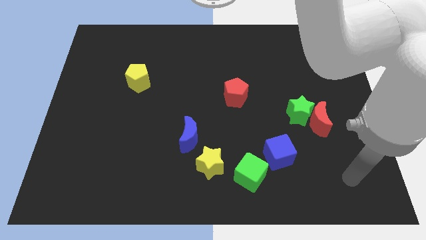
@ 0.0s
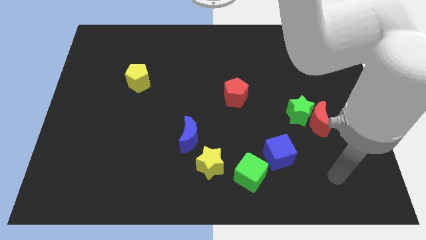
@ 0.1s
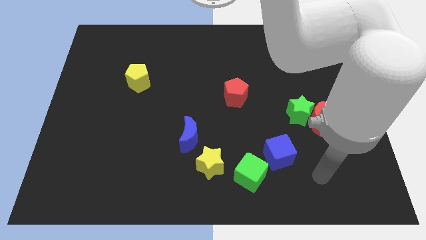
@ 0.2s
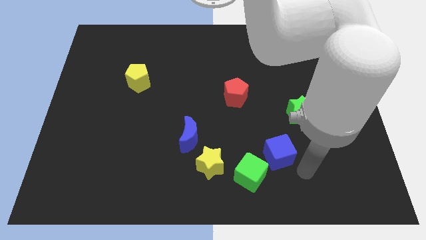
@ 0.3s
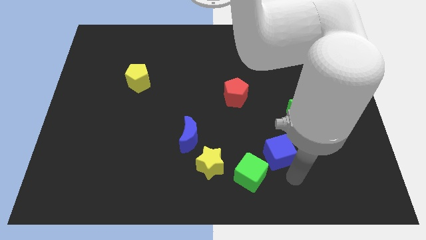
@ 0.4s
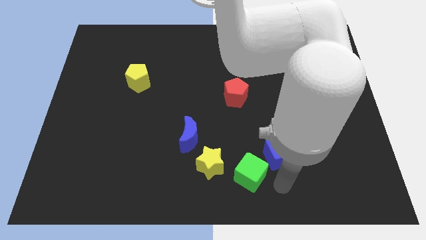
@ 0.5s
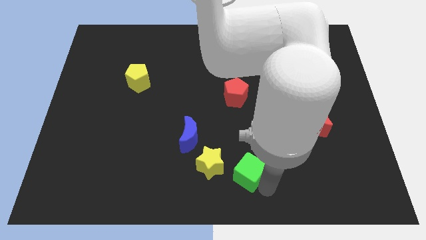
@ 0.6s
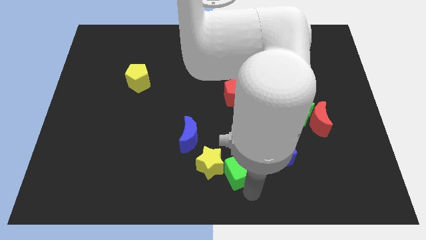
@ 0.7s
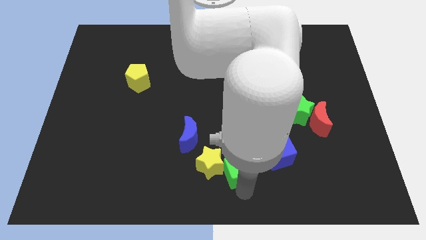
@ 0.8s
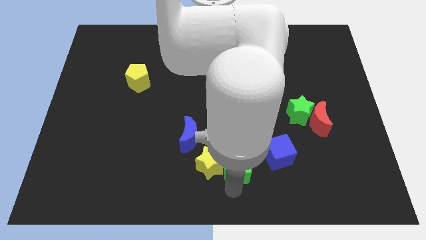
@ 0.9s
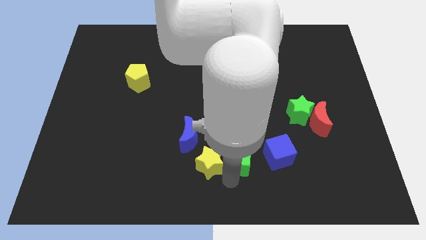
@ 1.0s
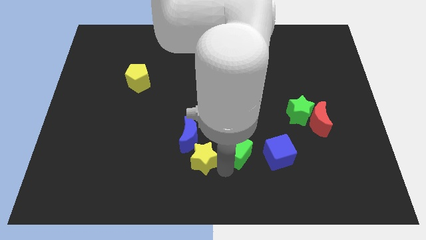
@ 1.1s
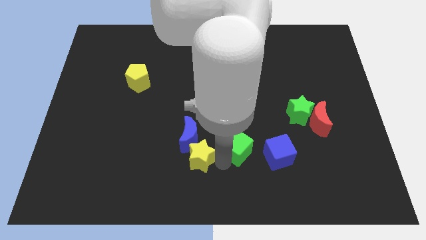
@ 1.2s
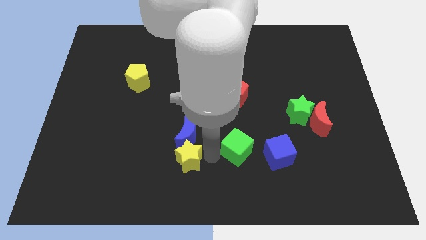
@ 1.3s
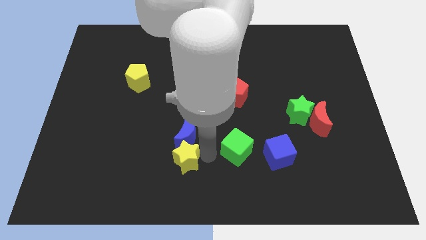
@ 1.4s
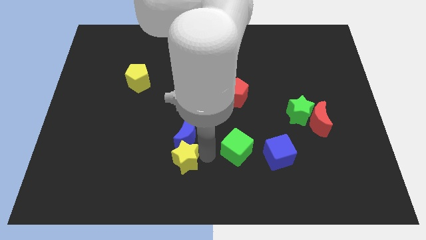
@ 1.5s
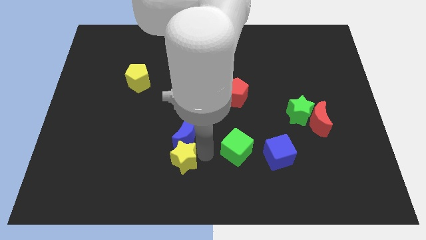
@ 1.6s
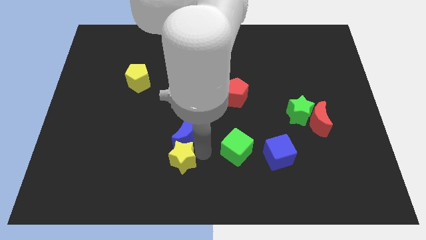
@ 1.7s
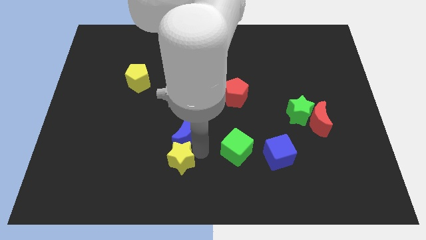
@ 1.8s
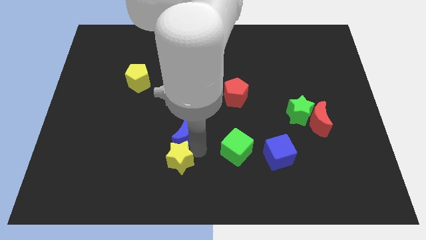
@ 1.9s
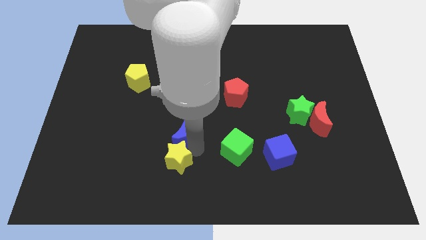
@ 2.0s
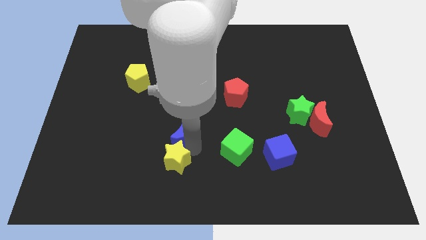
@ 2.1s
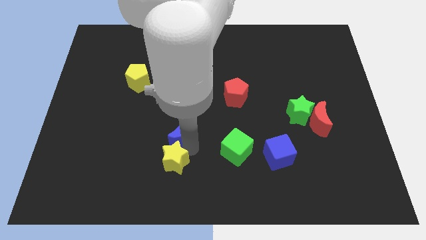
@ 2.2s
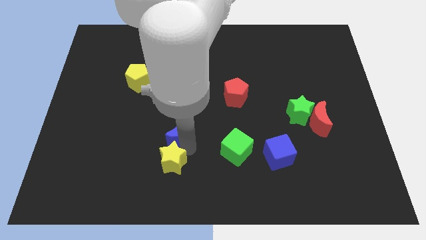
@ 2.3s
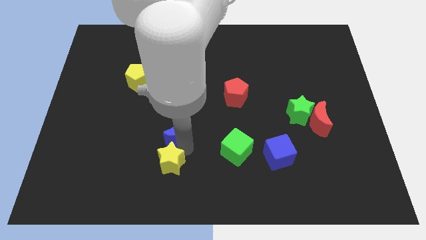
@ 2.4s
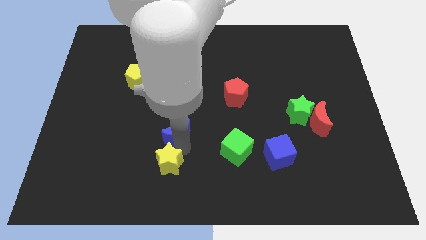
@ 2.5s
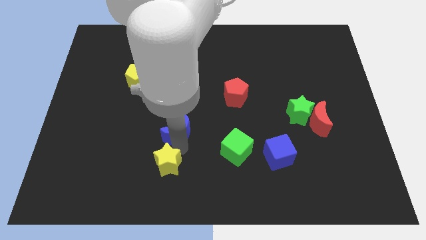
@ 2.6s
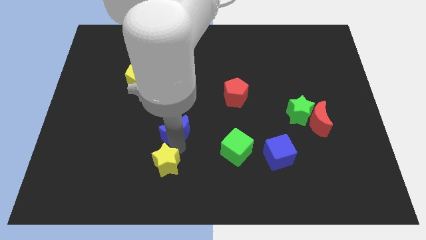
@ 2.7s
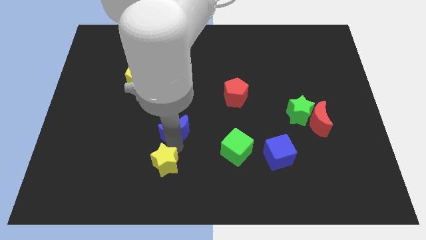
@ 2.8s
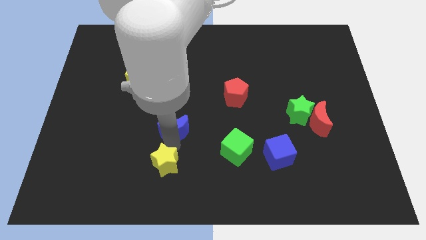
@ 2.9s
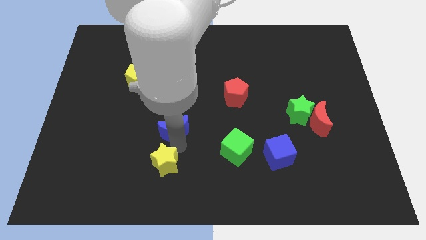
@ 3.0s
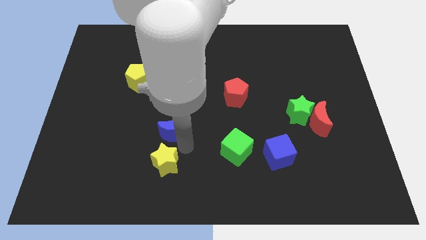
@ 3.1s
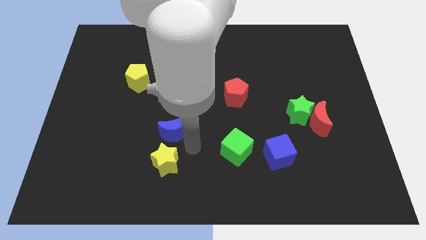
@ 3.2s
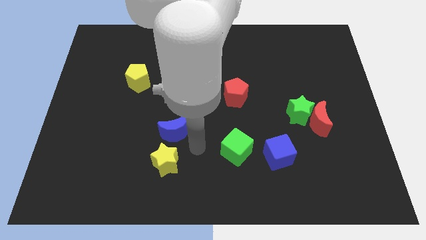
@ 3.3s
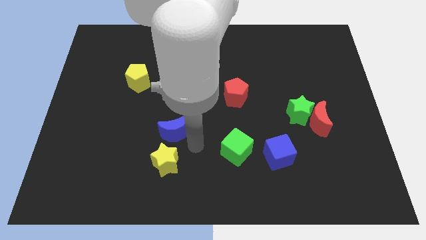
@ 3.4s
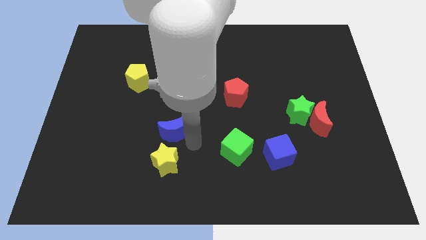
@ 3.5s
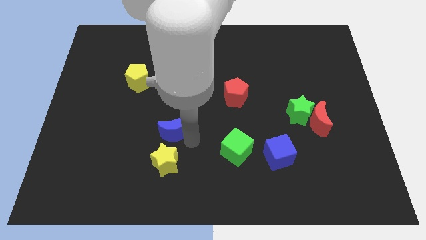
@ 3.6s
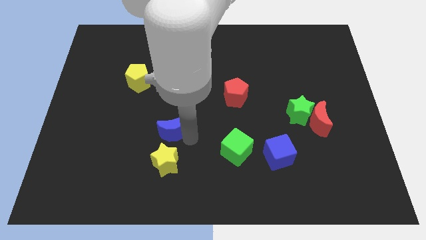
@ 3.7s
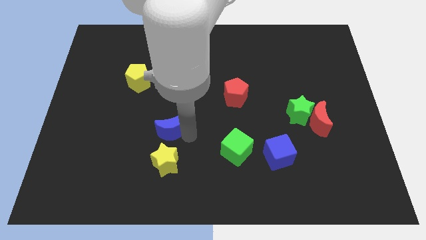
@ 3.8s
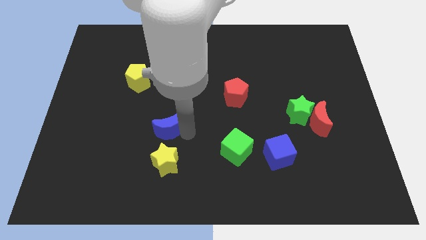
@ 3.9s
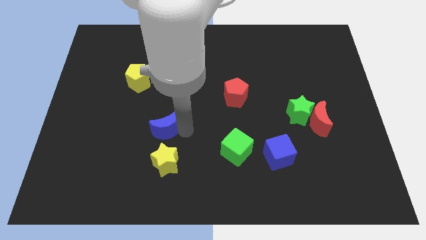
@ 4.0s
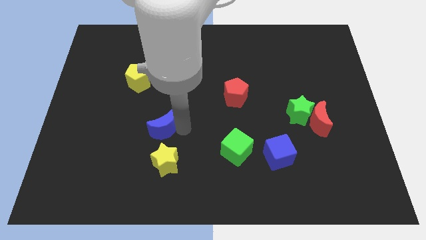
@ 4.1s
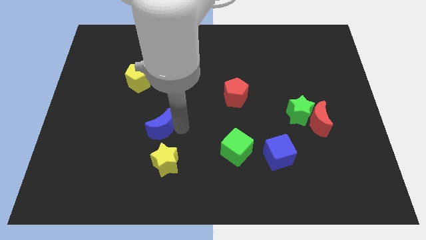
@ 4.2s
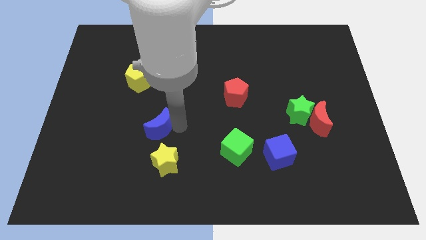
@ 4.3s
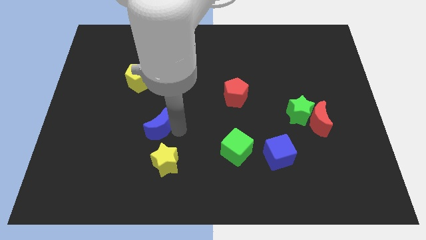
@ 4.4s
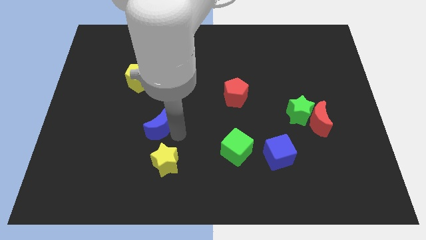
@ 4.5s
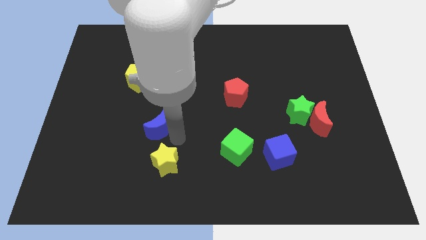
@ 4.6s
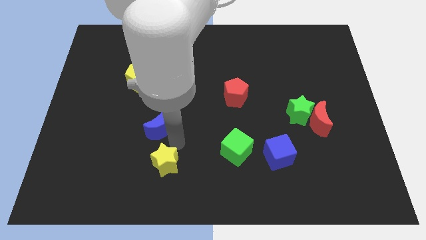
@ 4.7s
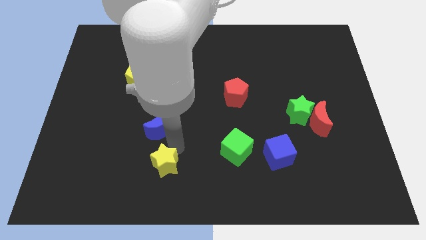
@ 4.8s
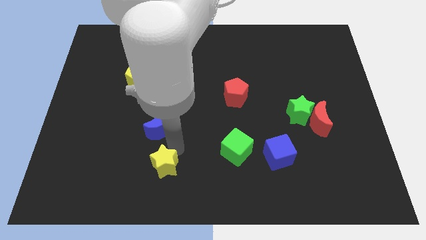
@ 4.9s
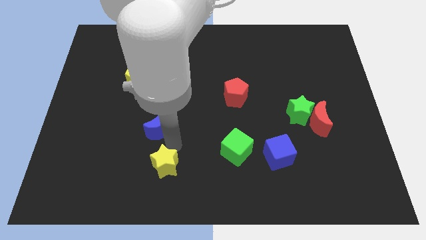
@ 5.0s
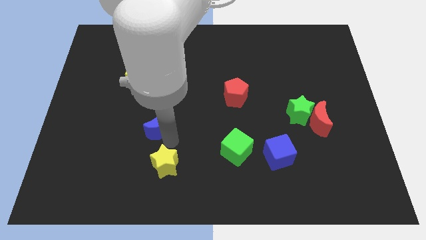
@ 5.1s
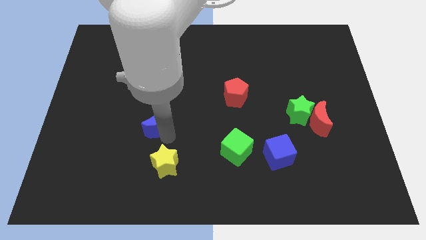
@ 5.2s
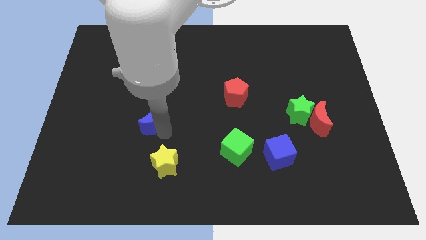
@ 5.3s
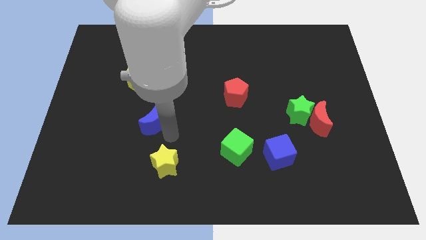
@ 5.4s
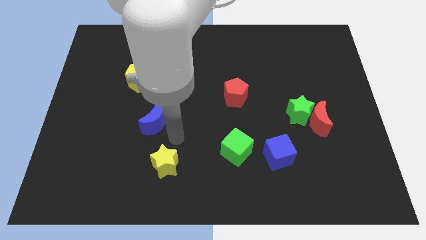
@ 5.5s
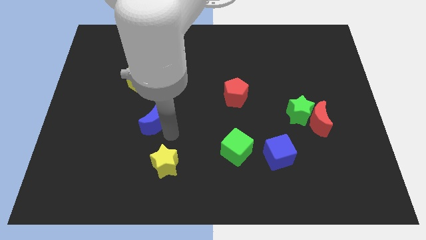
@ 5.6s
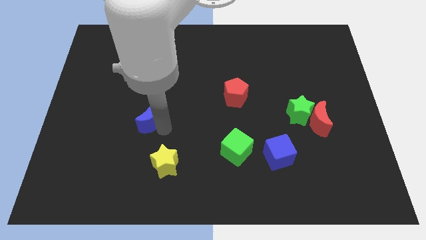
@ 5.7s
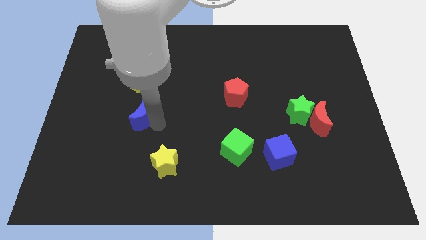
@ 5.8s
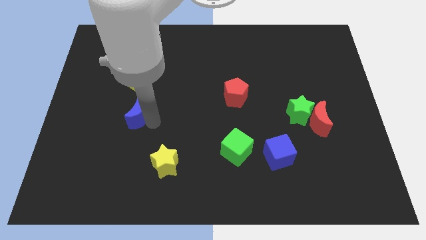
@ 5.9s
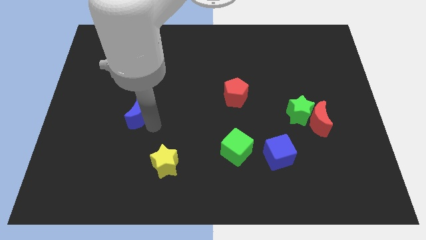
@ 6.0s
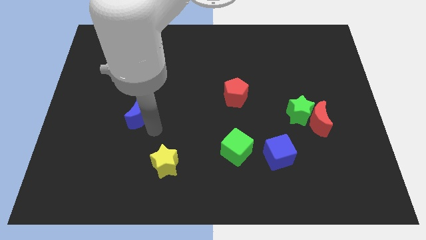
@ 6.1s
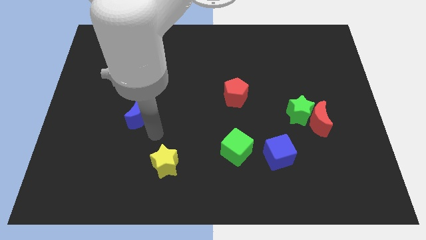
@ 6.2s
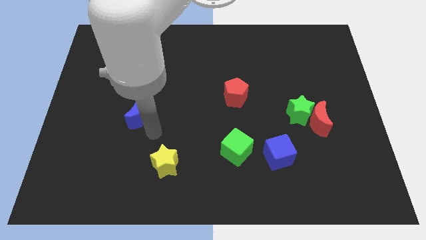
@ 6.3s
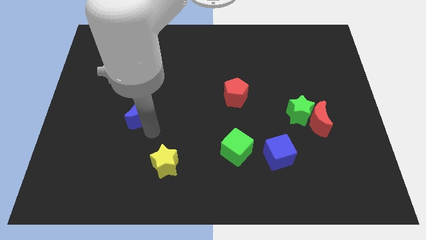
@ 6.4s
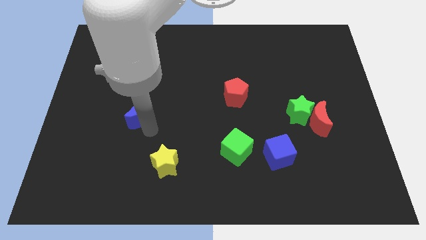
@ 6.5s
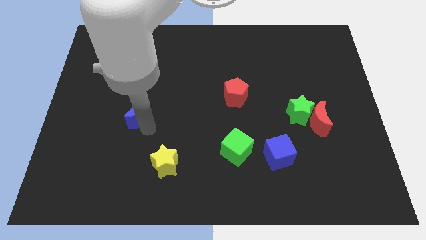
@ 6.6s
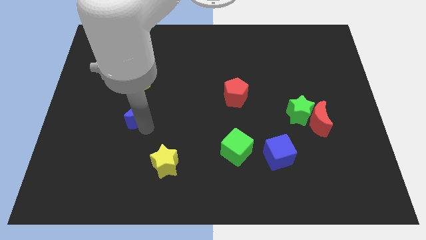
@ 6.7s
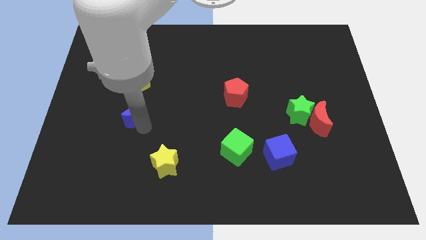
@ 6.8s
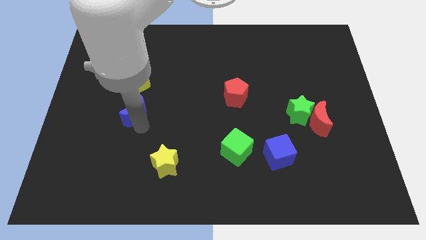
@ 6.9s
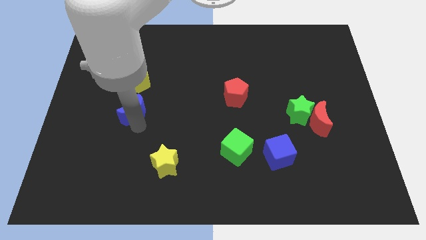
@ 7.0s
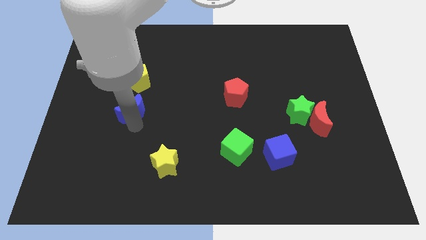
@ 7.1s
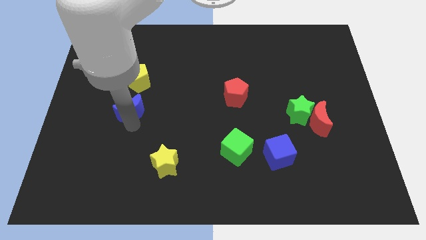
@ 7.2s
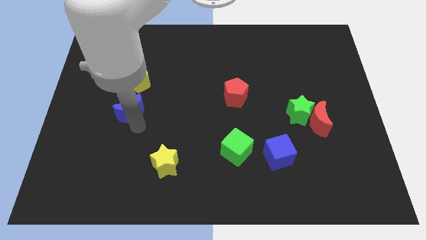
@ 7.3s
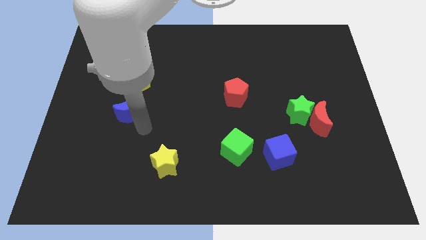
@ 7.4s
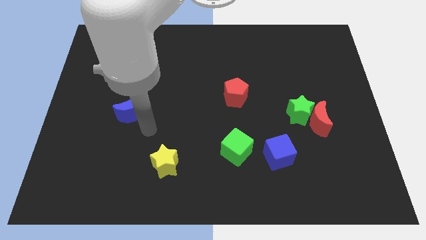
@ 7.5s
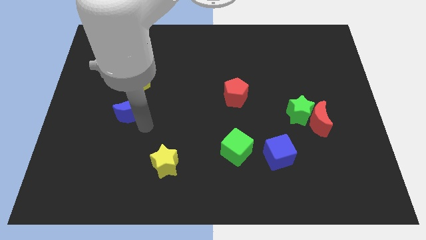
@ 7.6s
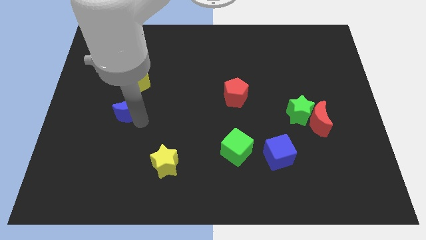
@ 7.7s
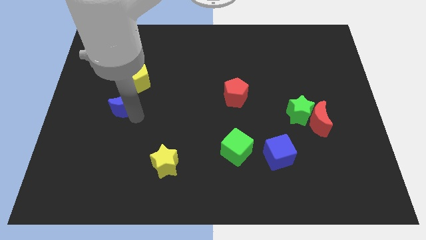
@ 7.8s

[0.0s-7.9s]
push the blue moon to the bottom left of the yellow pentagon
